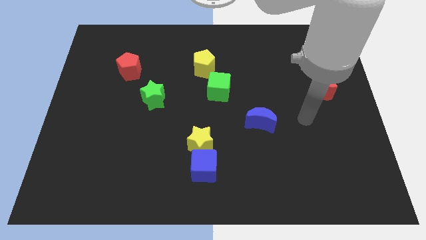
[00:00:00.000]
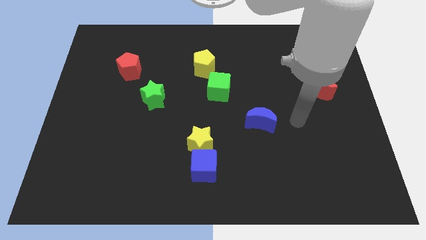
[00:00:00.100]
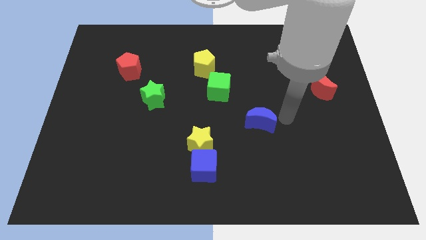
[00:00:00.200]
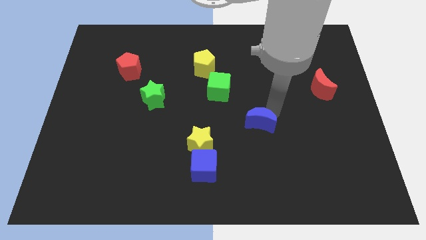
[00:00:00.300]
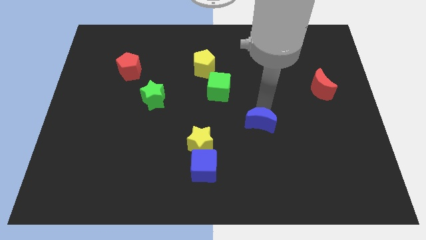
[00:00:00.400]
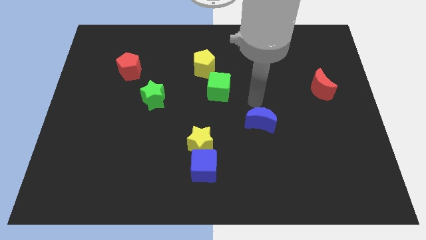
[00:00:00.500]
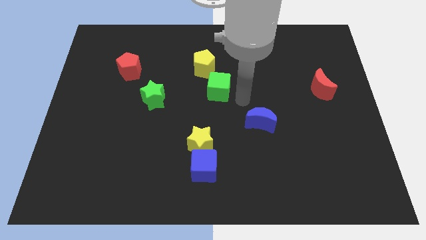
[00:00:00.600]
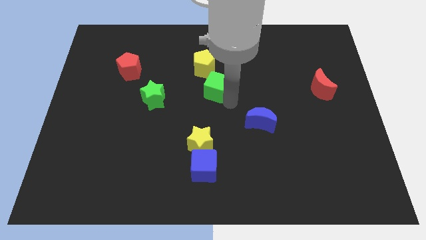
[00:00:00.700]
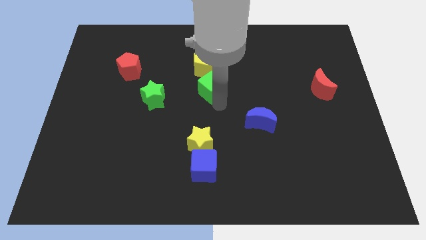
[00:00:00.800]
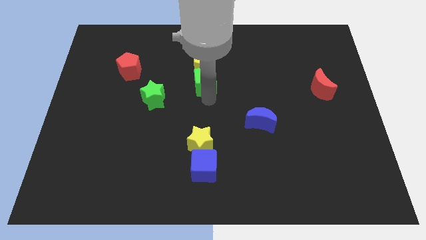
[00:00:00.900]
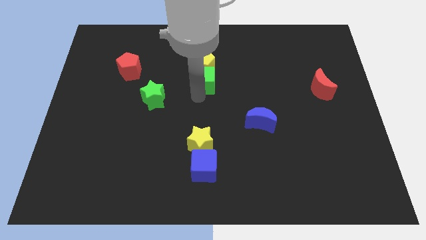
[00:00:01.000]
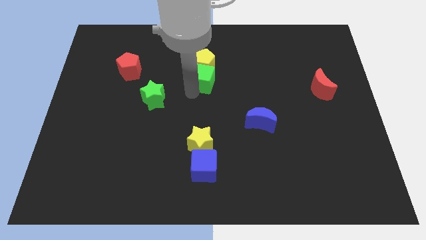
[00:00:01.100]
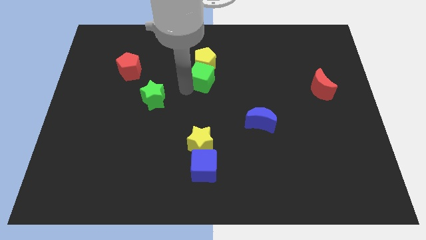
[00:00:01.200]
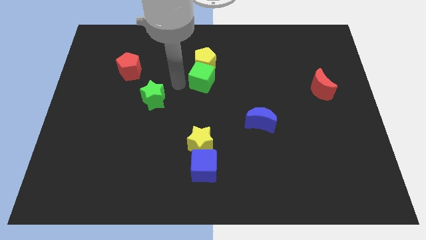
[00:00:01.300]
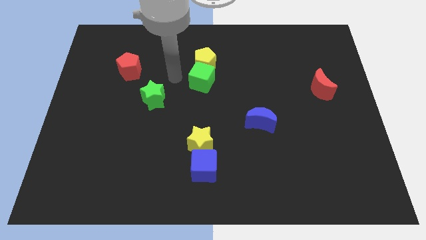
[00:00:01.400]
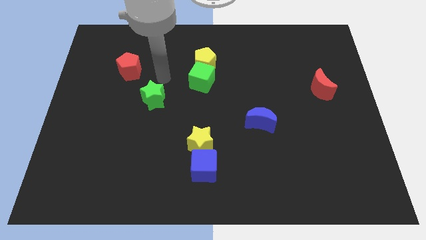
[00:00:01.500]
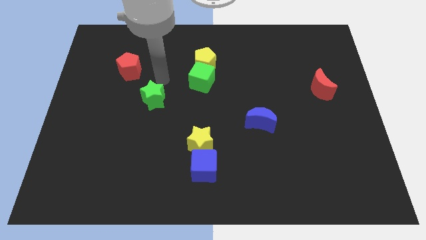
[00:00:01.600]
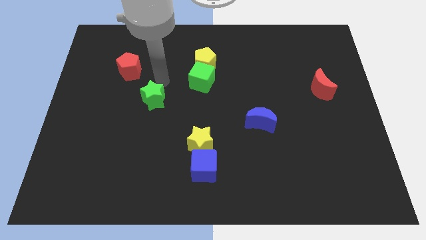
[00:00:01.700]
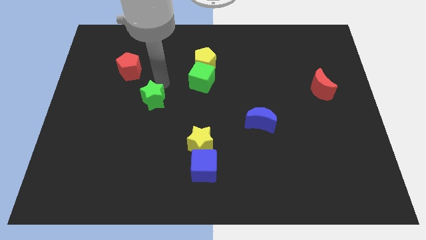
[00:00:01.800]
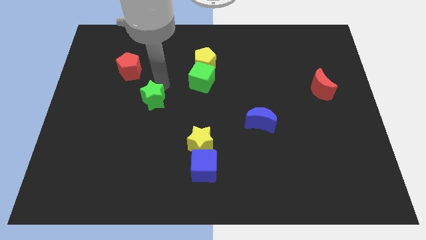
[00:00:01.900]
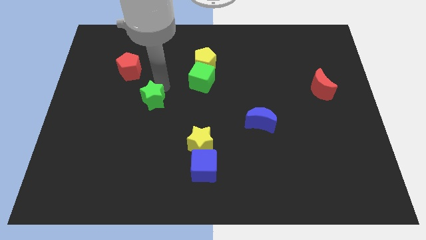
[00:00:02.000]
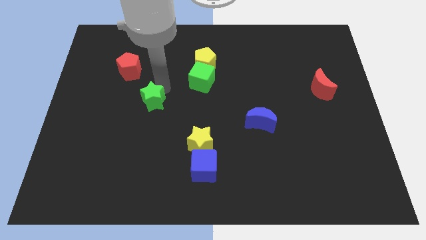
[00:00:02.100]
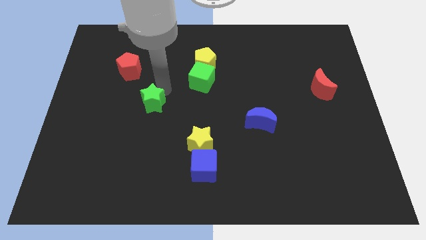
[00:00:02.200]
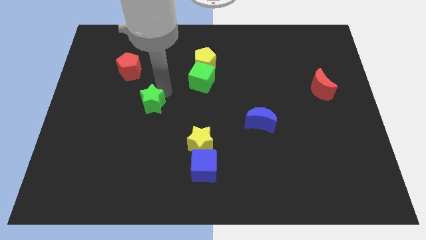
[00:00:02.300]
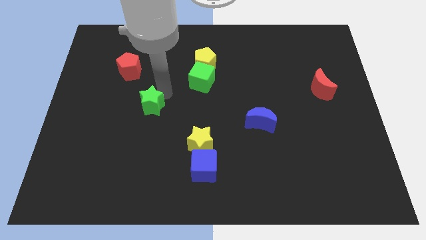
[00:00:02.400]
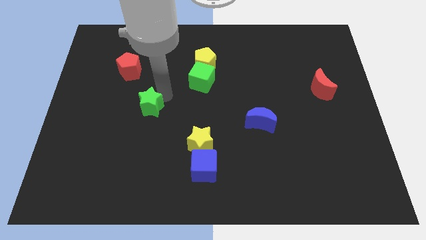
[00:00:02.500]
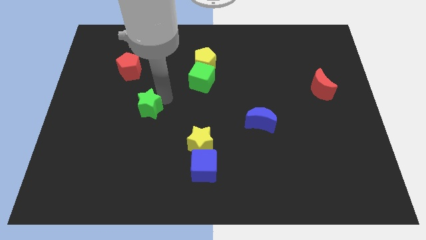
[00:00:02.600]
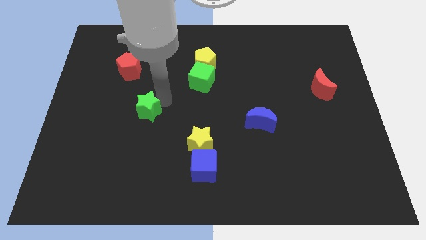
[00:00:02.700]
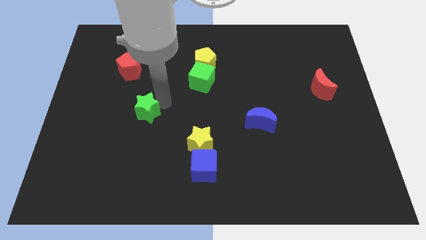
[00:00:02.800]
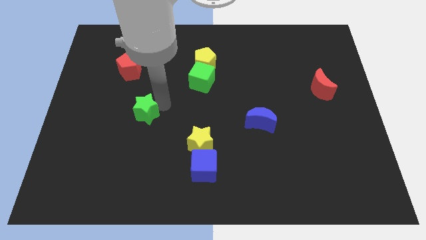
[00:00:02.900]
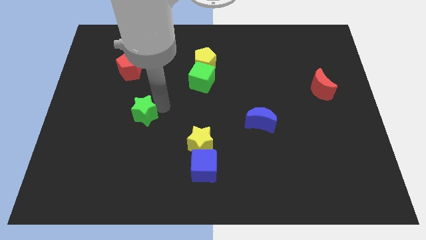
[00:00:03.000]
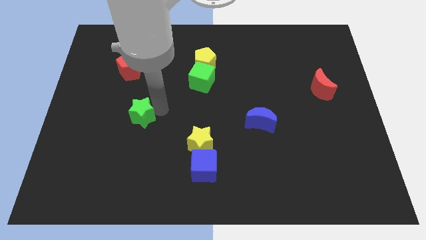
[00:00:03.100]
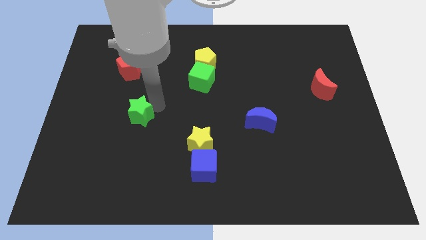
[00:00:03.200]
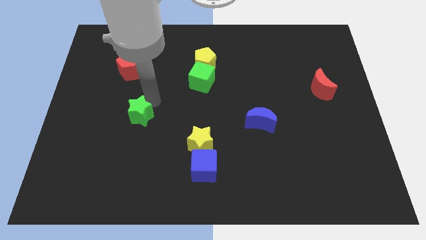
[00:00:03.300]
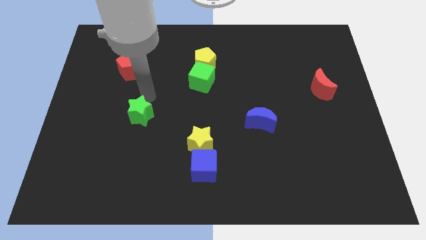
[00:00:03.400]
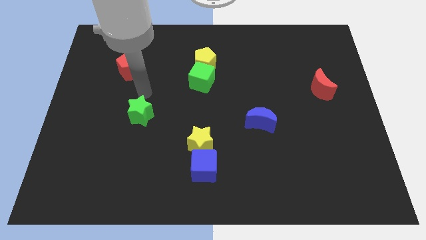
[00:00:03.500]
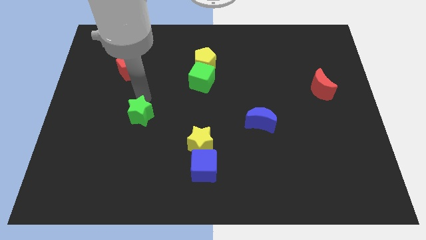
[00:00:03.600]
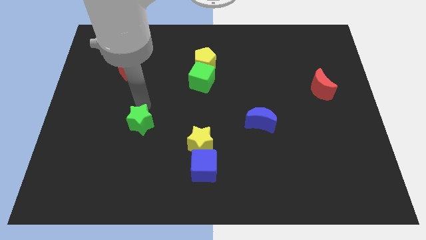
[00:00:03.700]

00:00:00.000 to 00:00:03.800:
move the green star a bit downwards

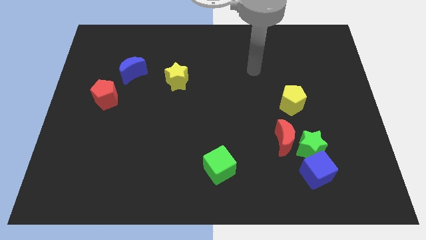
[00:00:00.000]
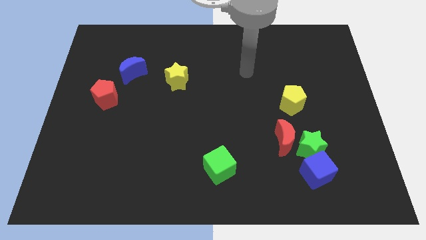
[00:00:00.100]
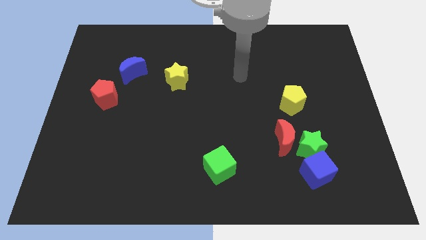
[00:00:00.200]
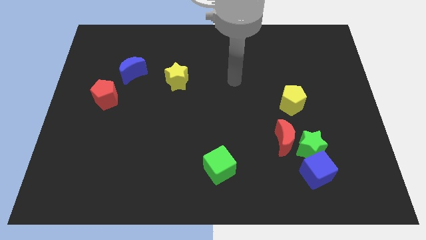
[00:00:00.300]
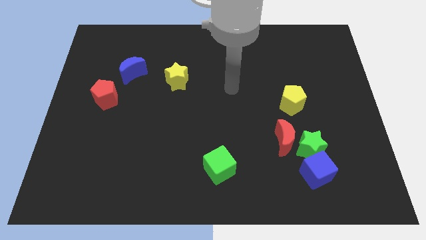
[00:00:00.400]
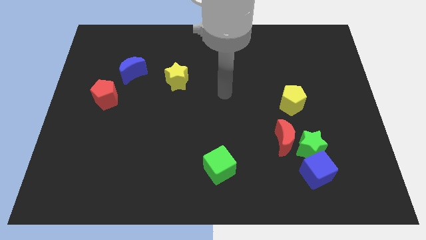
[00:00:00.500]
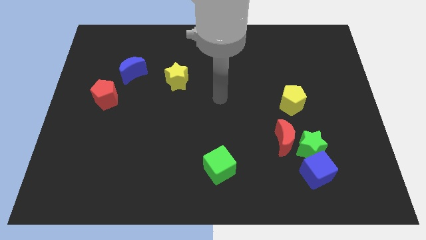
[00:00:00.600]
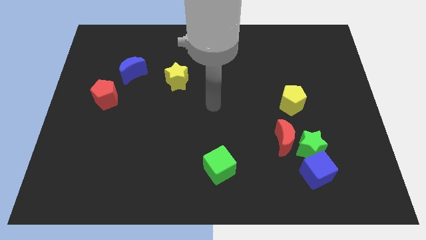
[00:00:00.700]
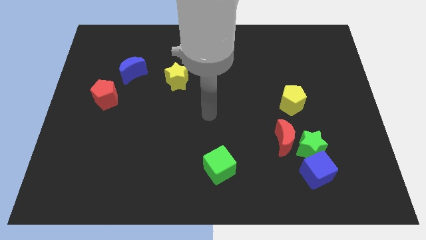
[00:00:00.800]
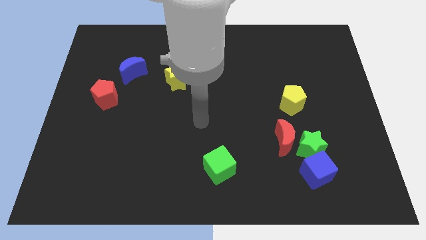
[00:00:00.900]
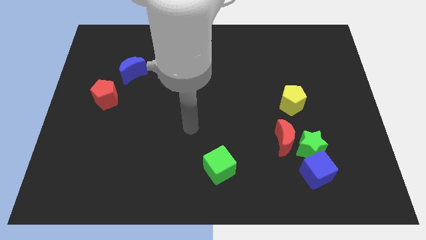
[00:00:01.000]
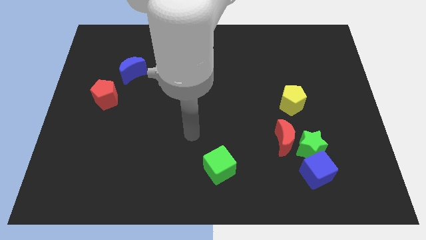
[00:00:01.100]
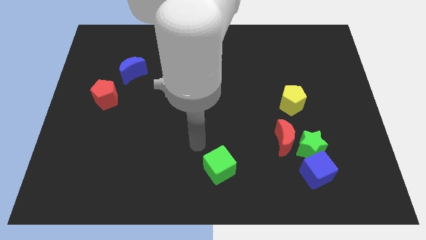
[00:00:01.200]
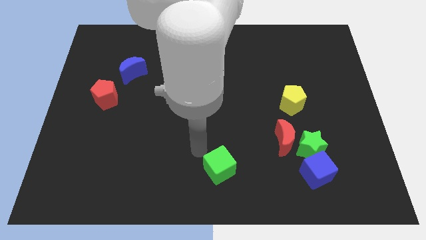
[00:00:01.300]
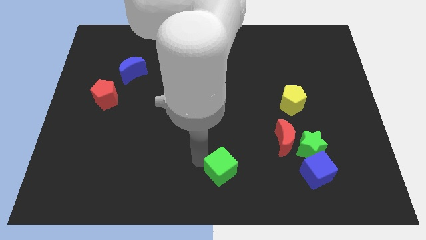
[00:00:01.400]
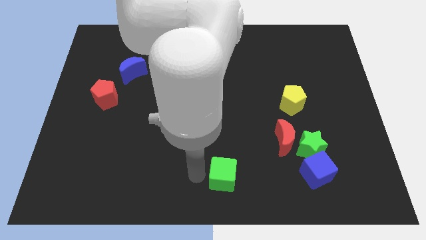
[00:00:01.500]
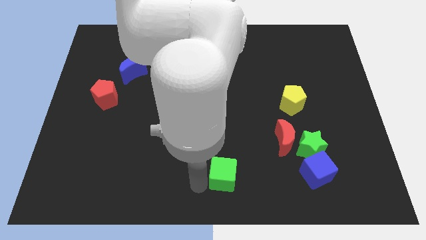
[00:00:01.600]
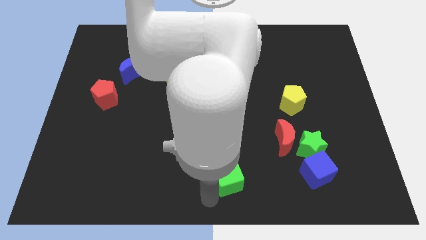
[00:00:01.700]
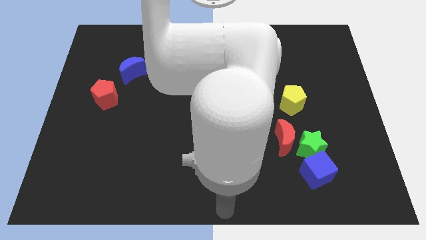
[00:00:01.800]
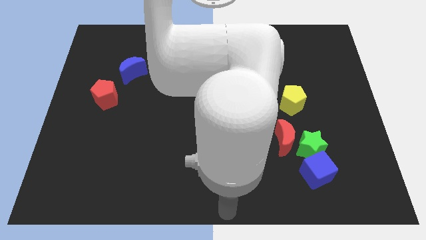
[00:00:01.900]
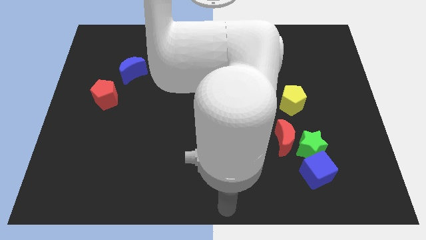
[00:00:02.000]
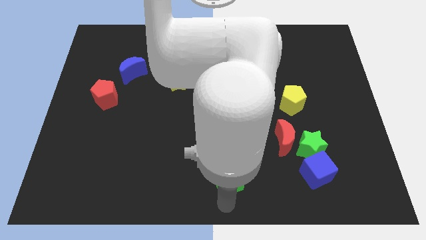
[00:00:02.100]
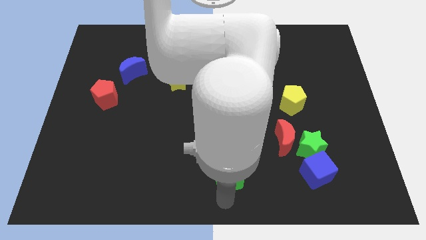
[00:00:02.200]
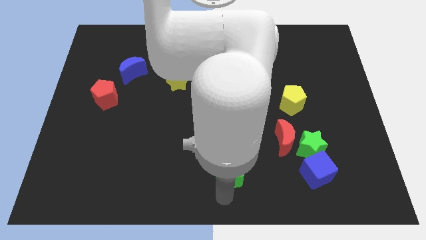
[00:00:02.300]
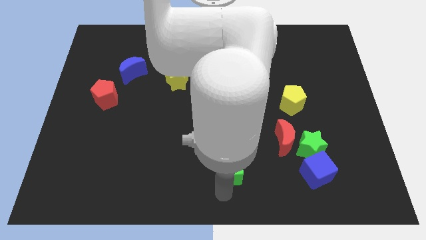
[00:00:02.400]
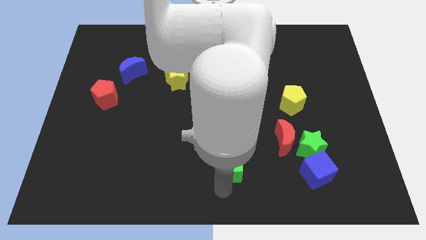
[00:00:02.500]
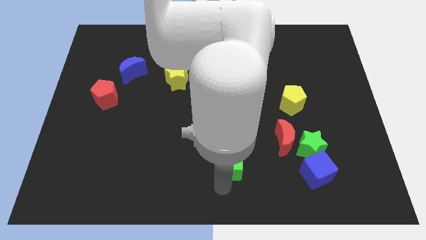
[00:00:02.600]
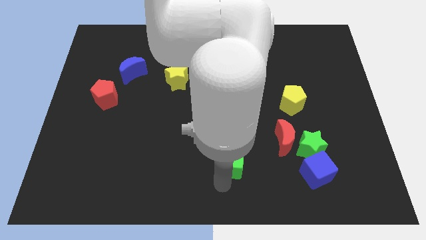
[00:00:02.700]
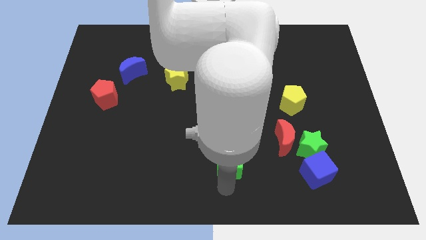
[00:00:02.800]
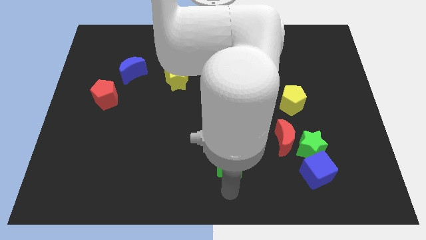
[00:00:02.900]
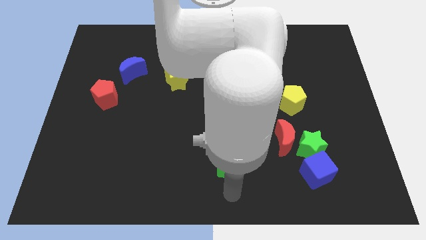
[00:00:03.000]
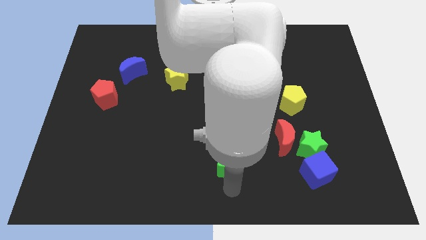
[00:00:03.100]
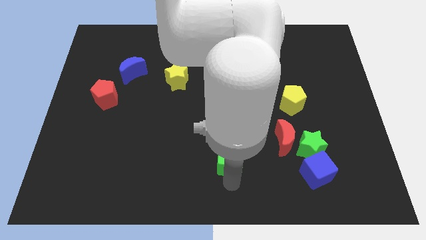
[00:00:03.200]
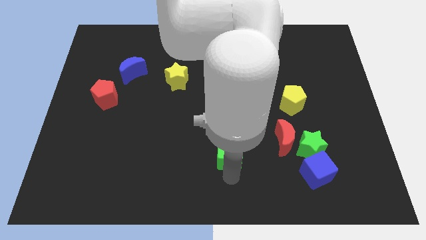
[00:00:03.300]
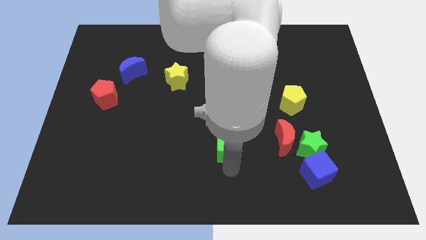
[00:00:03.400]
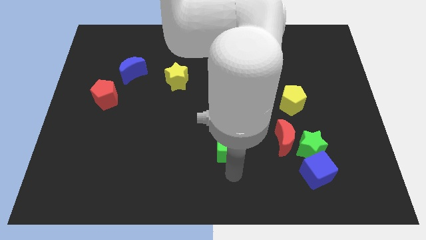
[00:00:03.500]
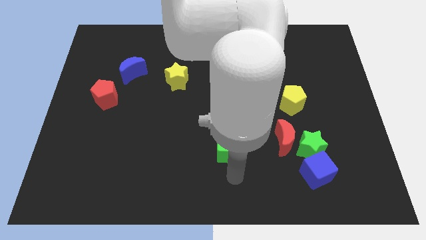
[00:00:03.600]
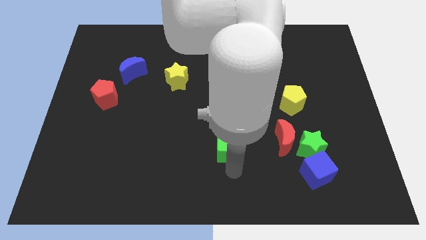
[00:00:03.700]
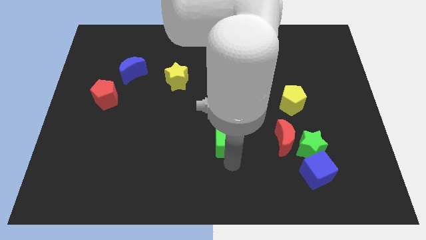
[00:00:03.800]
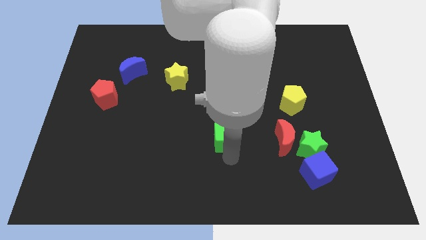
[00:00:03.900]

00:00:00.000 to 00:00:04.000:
slightly move the green cube up

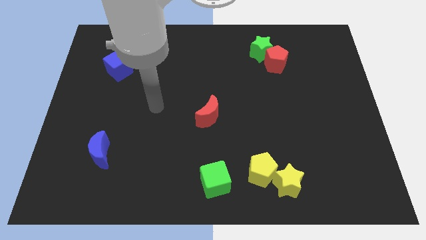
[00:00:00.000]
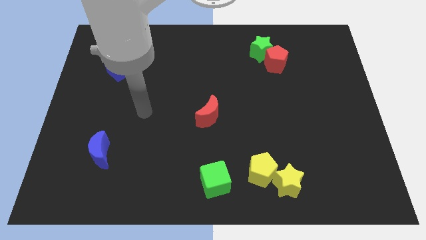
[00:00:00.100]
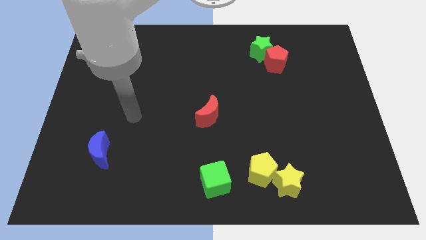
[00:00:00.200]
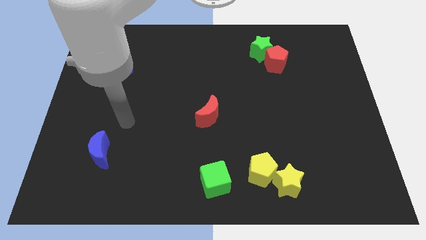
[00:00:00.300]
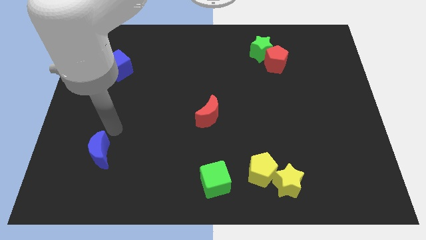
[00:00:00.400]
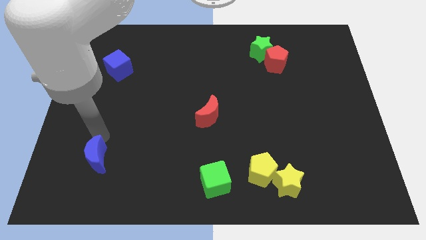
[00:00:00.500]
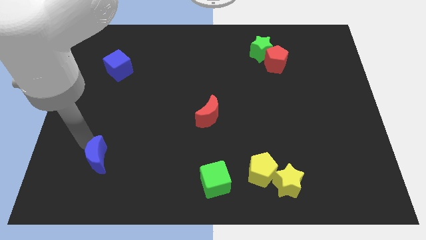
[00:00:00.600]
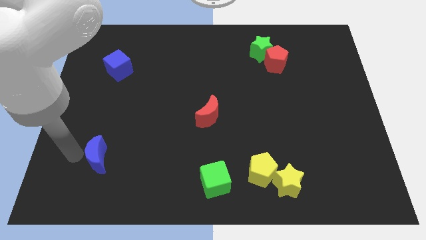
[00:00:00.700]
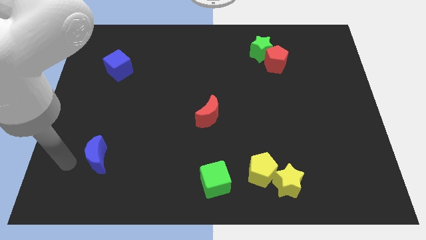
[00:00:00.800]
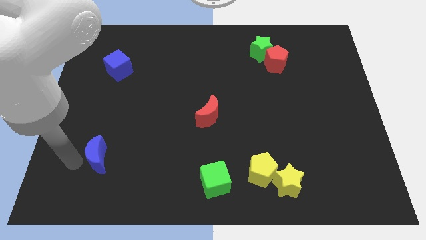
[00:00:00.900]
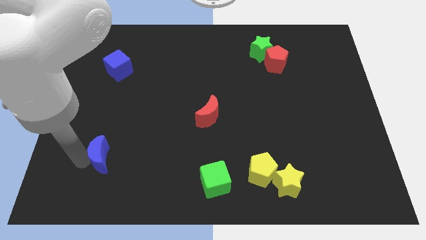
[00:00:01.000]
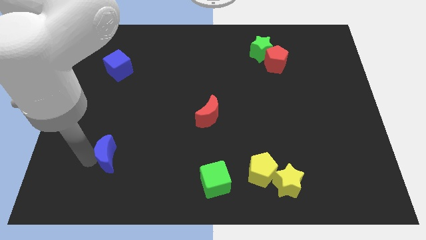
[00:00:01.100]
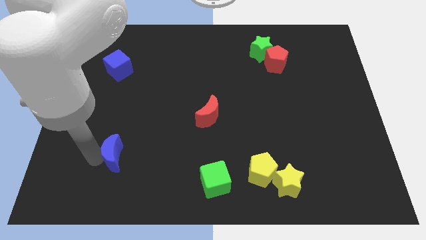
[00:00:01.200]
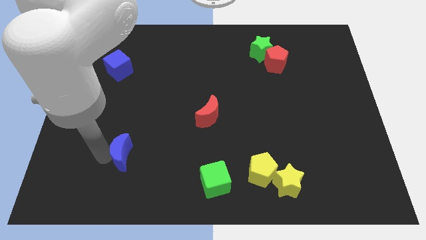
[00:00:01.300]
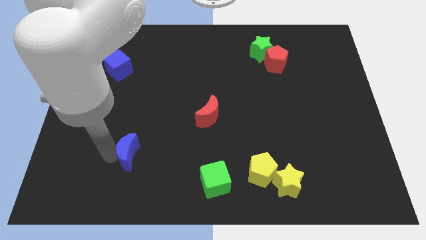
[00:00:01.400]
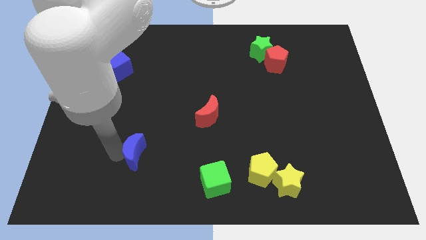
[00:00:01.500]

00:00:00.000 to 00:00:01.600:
slightly push the blue moon right
